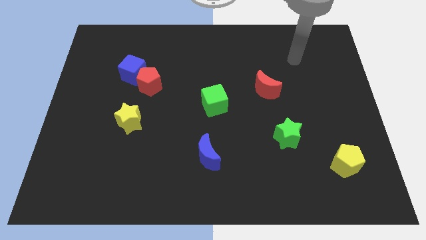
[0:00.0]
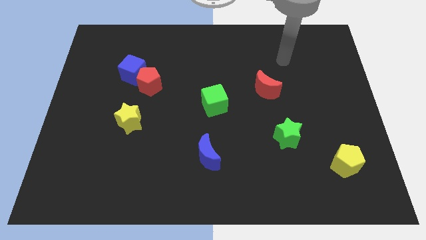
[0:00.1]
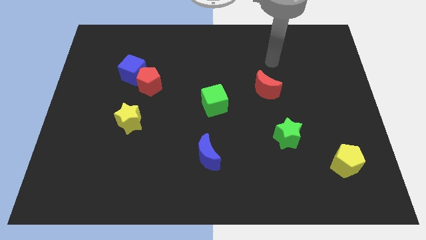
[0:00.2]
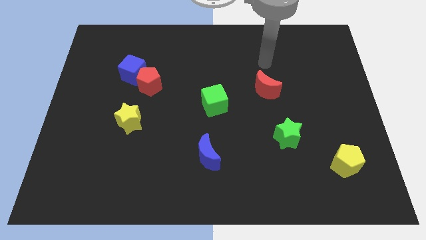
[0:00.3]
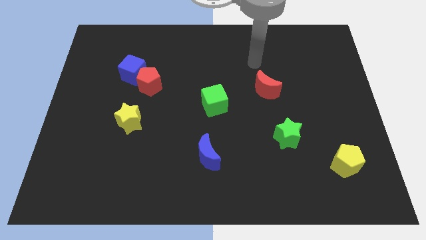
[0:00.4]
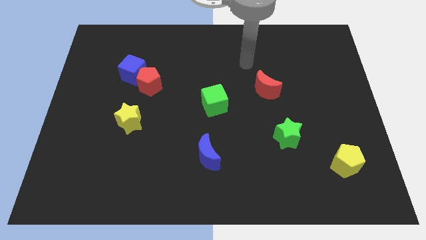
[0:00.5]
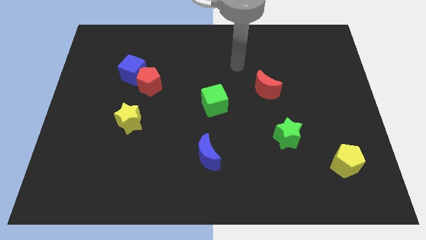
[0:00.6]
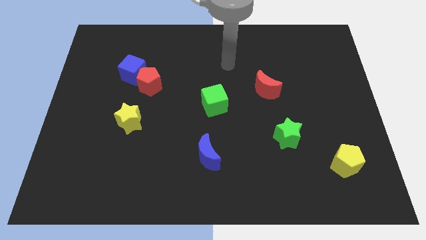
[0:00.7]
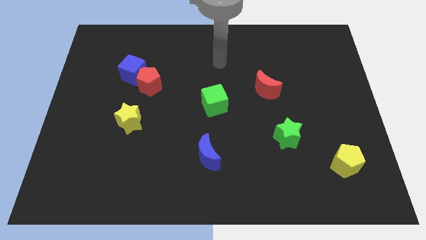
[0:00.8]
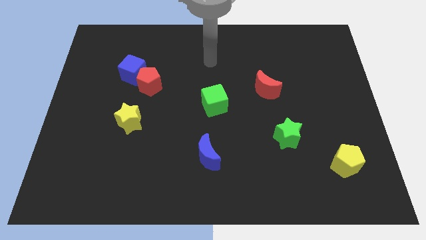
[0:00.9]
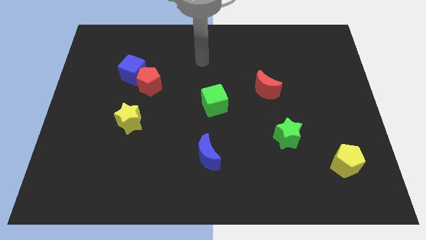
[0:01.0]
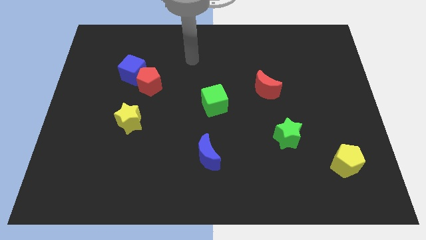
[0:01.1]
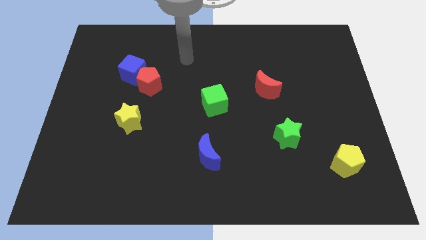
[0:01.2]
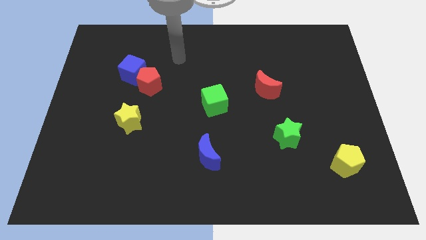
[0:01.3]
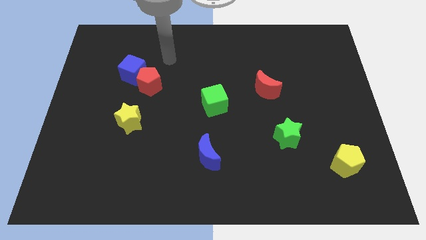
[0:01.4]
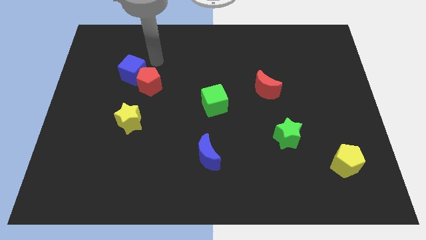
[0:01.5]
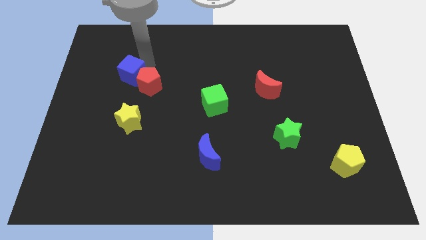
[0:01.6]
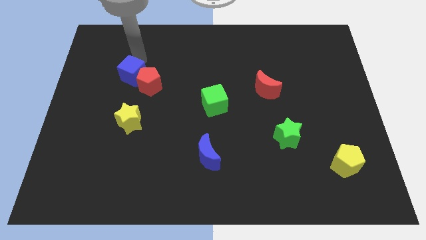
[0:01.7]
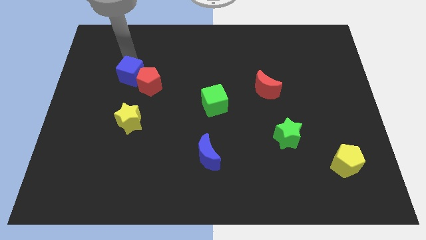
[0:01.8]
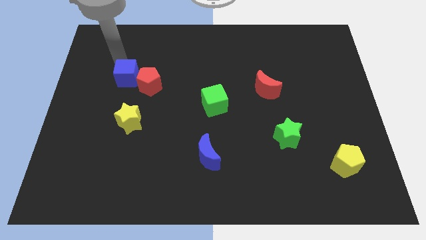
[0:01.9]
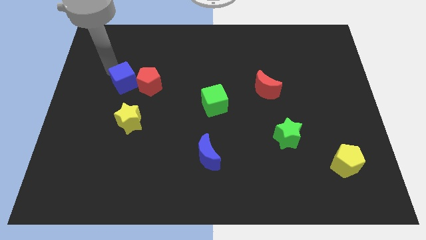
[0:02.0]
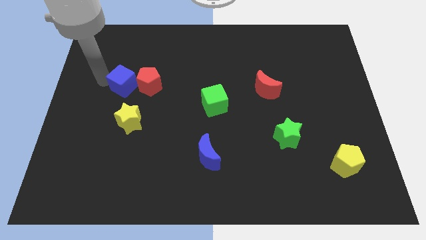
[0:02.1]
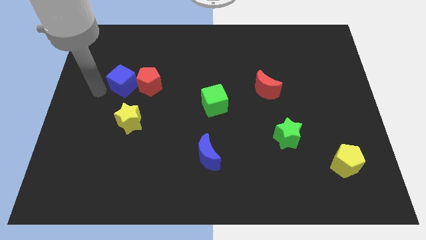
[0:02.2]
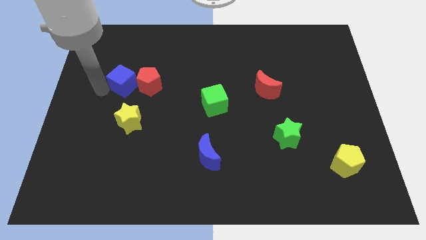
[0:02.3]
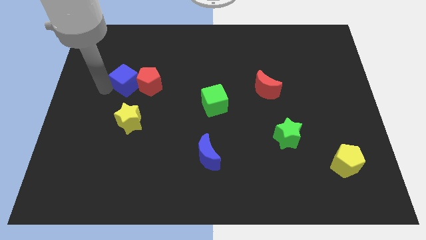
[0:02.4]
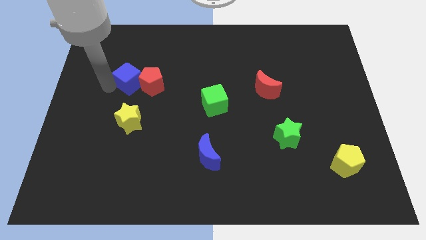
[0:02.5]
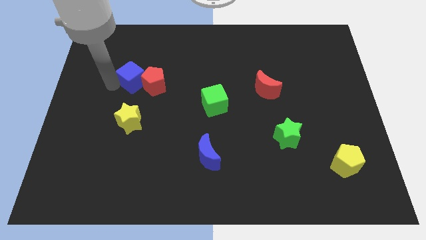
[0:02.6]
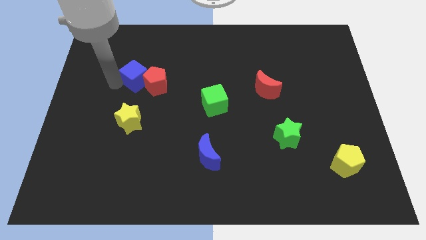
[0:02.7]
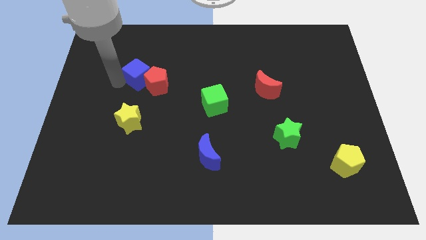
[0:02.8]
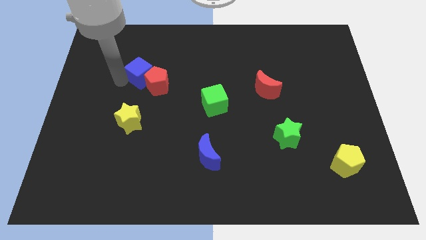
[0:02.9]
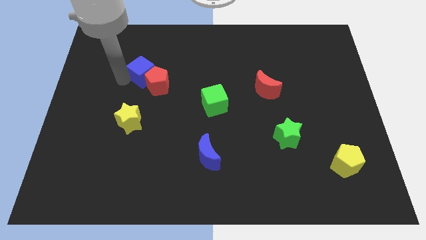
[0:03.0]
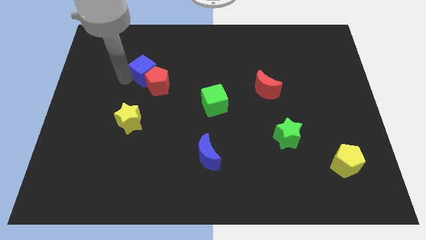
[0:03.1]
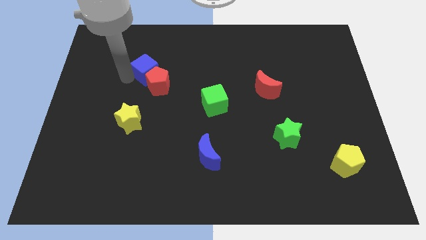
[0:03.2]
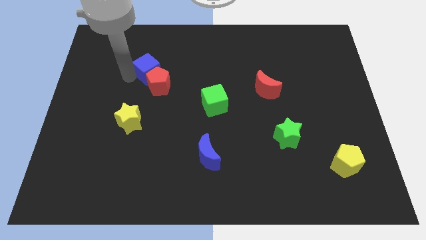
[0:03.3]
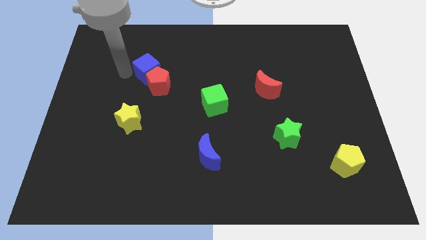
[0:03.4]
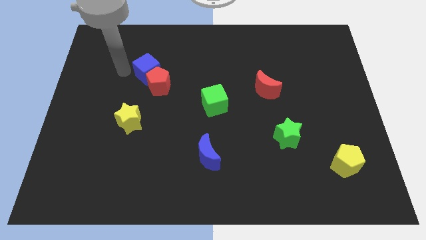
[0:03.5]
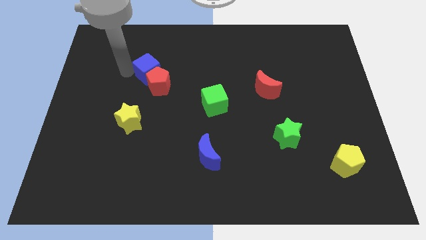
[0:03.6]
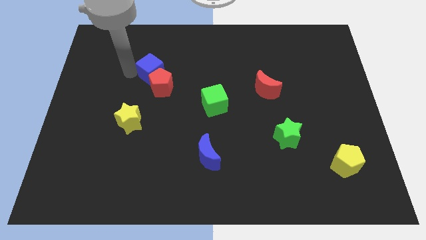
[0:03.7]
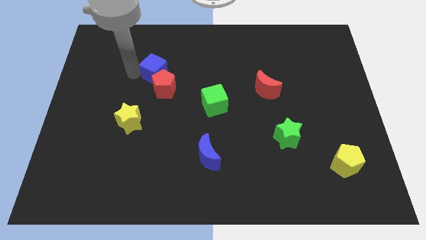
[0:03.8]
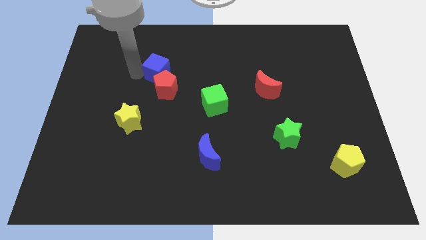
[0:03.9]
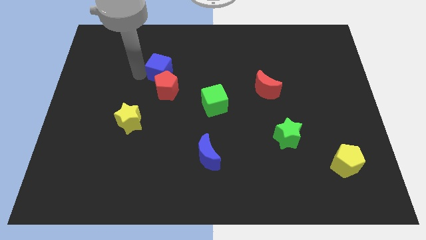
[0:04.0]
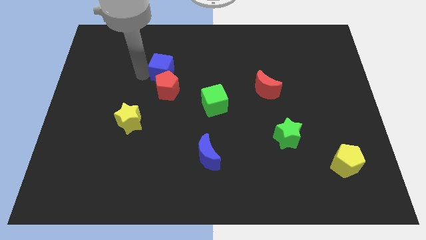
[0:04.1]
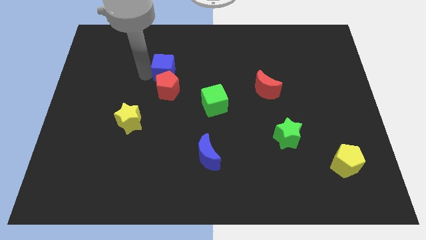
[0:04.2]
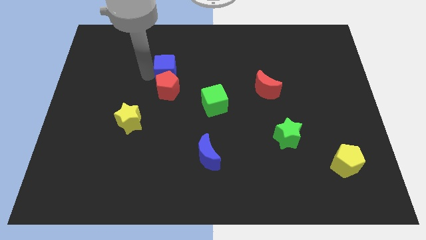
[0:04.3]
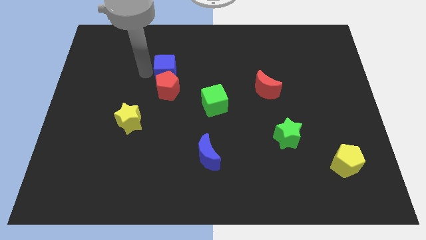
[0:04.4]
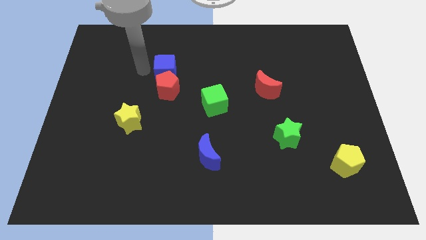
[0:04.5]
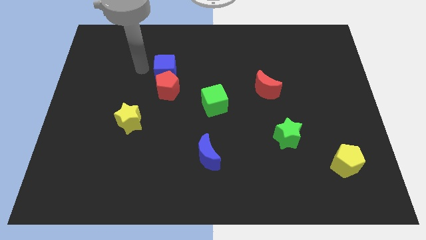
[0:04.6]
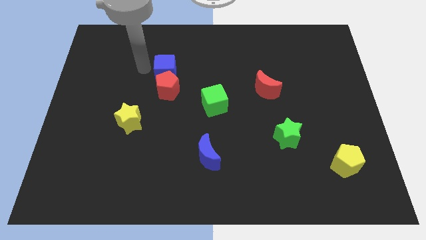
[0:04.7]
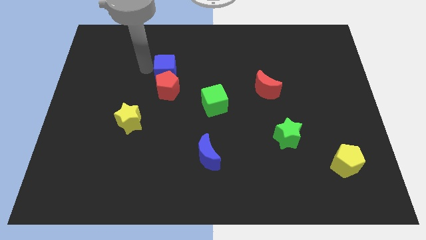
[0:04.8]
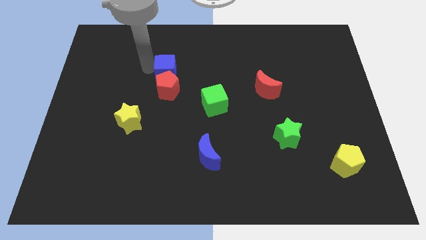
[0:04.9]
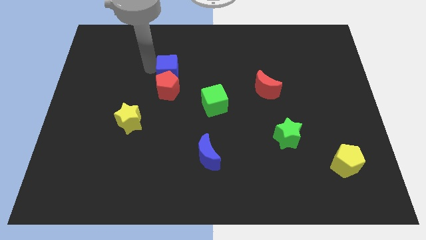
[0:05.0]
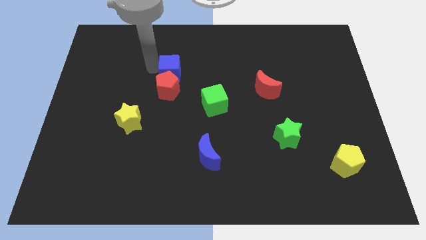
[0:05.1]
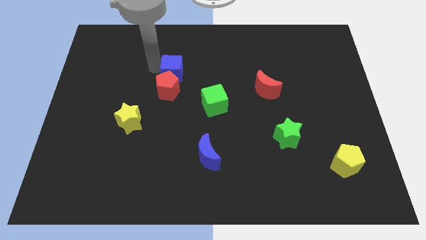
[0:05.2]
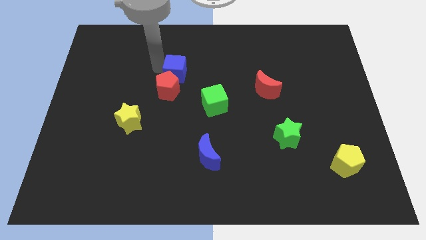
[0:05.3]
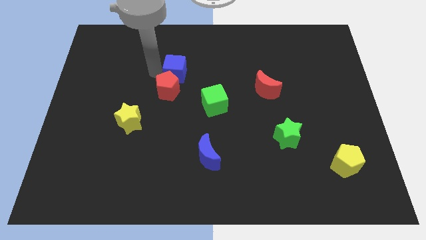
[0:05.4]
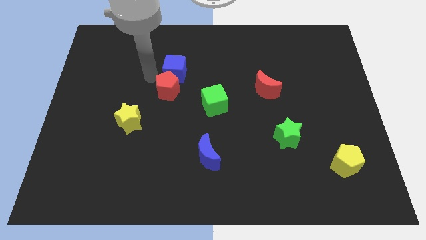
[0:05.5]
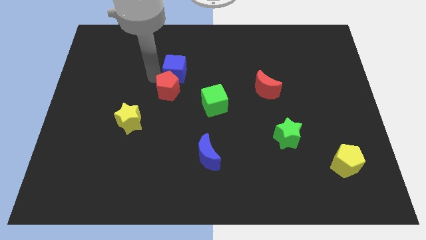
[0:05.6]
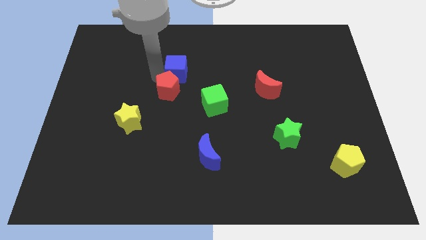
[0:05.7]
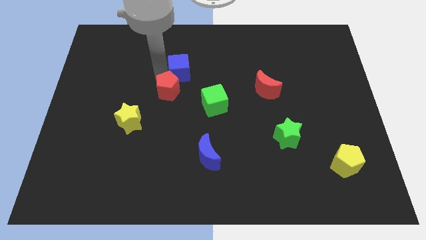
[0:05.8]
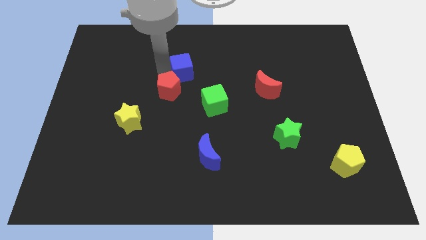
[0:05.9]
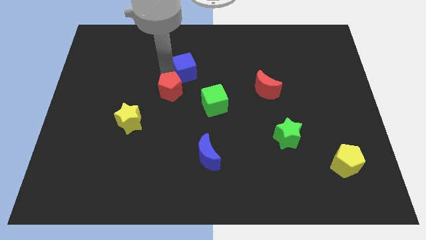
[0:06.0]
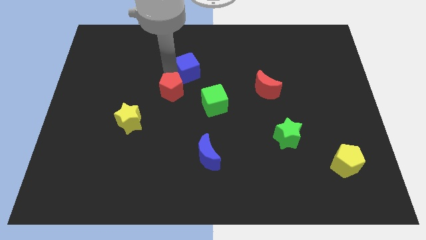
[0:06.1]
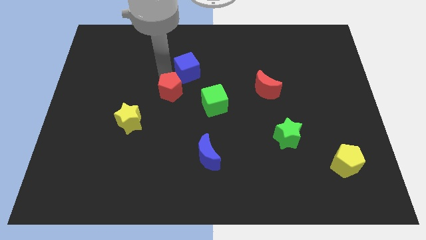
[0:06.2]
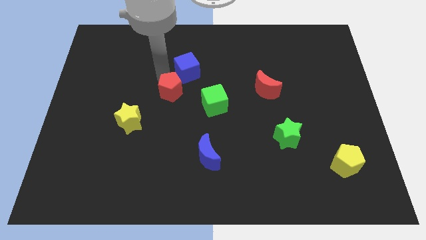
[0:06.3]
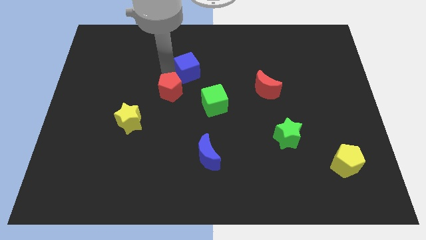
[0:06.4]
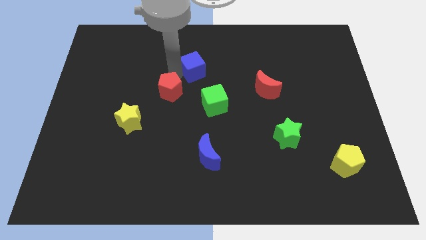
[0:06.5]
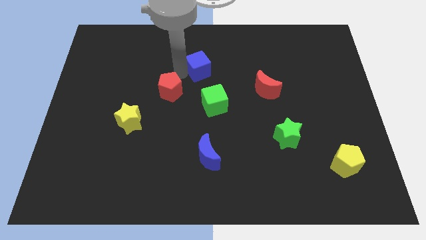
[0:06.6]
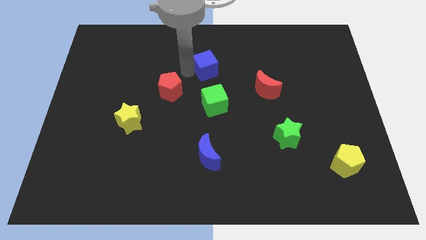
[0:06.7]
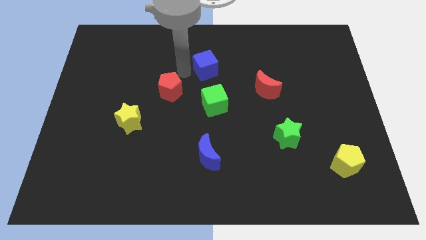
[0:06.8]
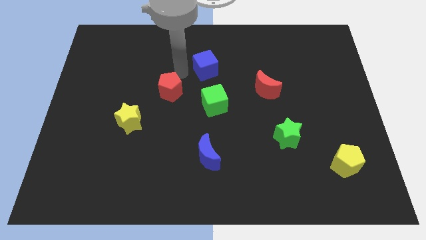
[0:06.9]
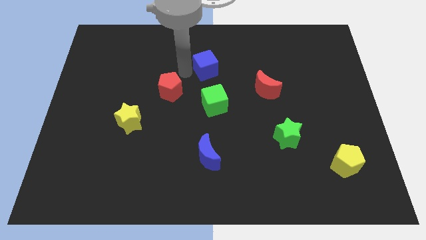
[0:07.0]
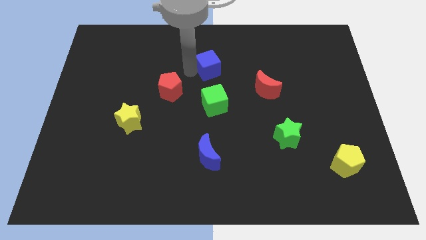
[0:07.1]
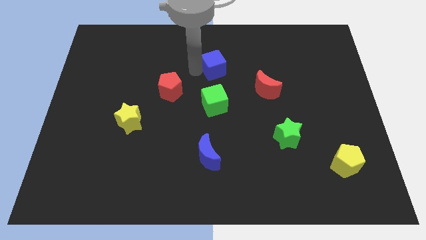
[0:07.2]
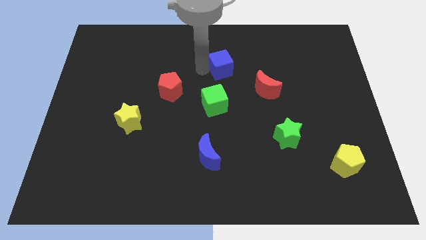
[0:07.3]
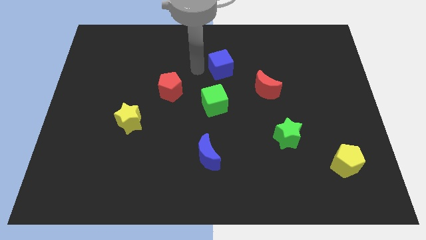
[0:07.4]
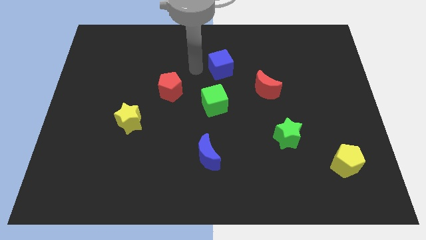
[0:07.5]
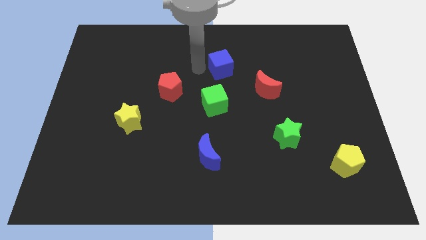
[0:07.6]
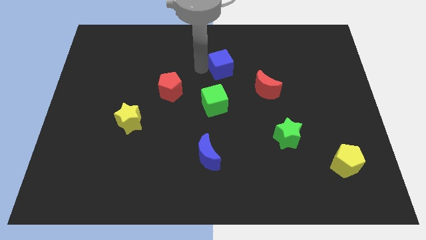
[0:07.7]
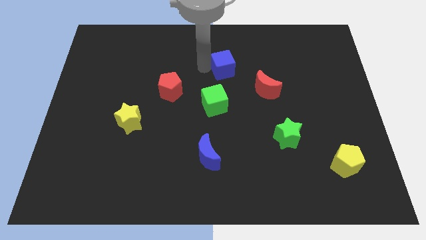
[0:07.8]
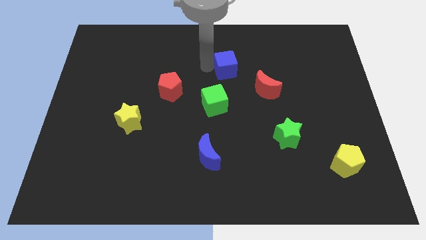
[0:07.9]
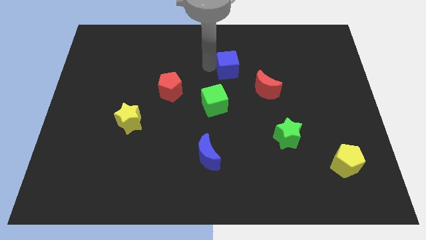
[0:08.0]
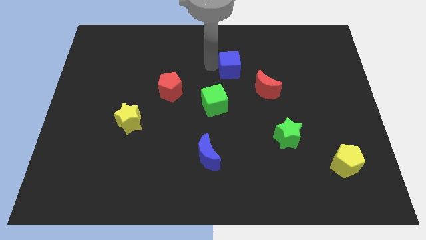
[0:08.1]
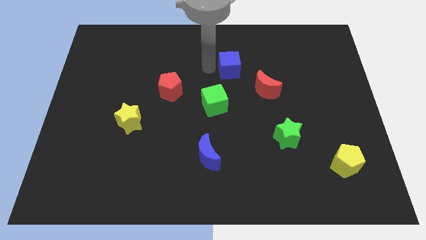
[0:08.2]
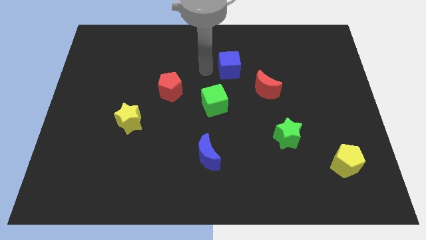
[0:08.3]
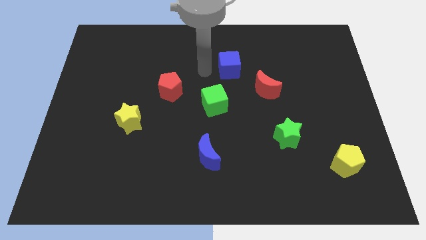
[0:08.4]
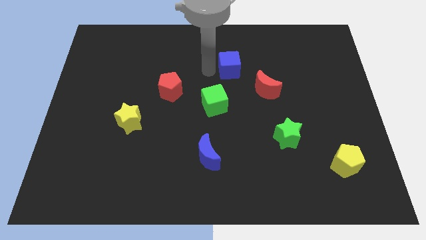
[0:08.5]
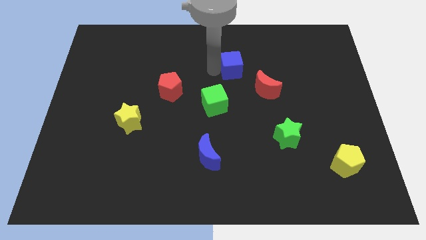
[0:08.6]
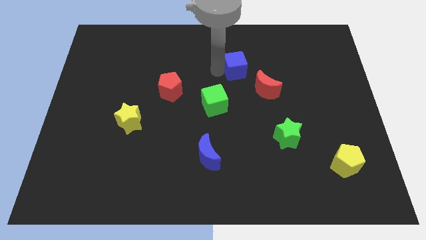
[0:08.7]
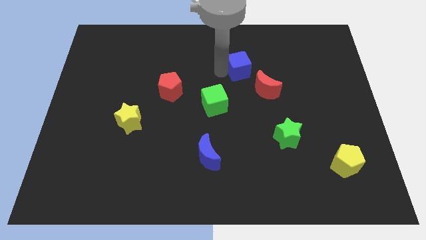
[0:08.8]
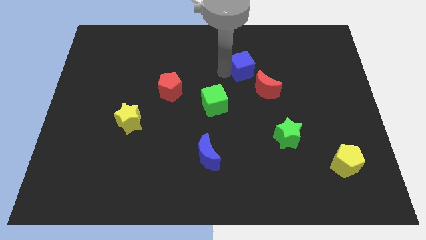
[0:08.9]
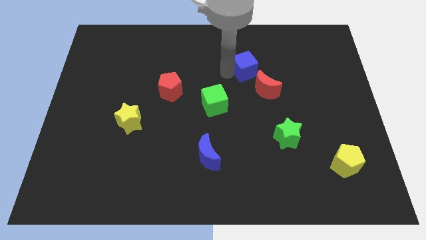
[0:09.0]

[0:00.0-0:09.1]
push the blue cube above the red moon
